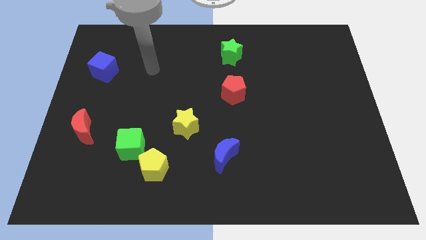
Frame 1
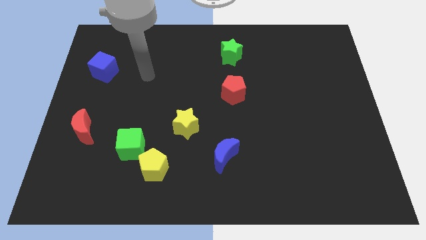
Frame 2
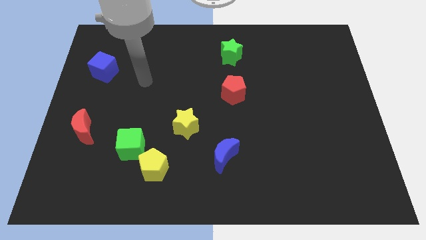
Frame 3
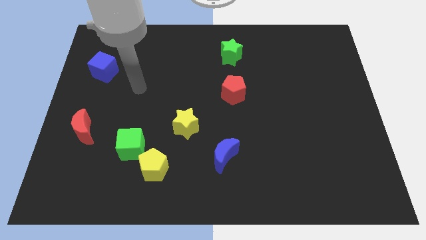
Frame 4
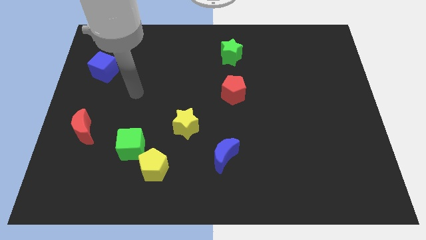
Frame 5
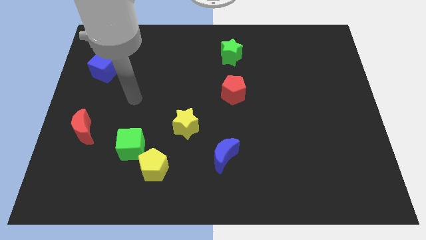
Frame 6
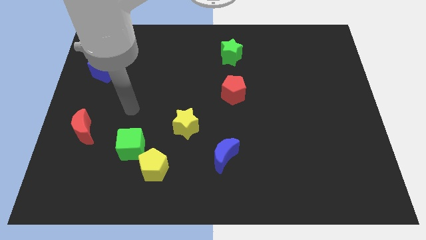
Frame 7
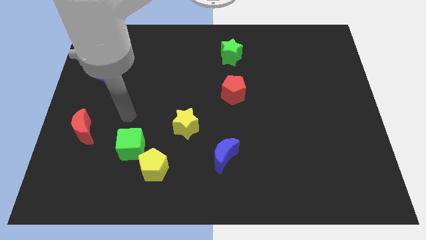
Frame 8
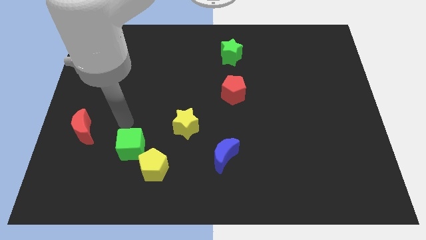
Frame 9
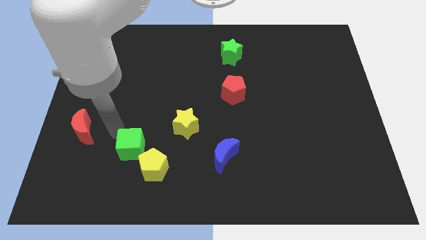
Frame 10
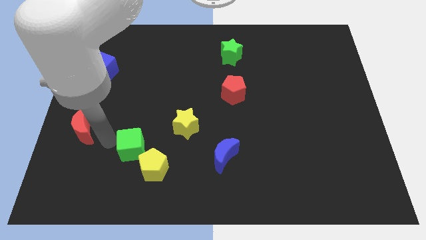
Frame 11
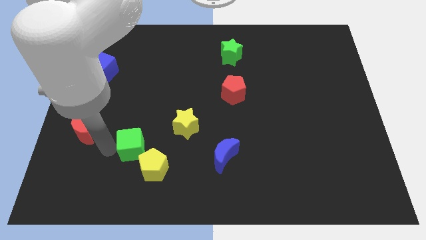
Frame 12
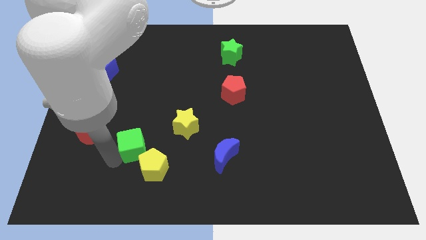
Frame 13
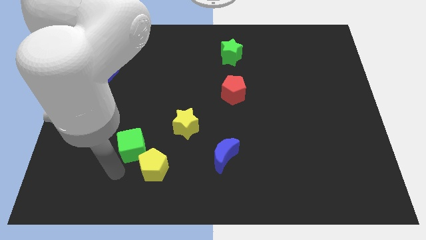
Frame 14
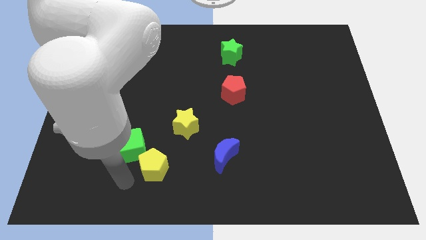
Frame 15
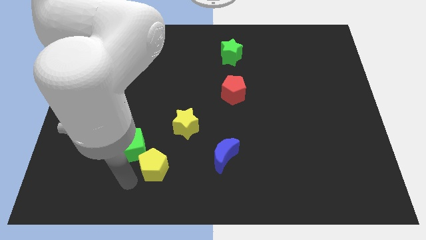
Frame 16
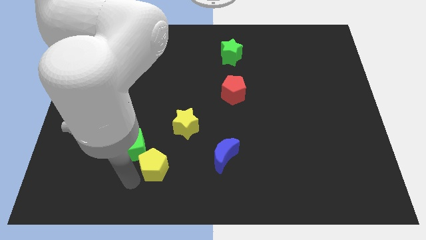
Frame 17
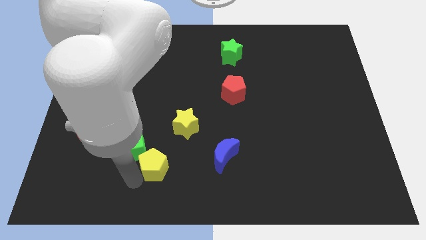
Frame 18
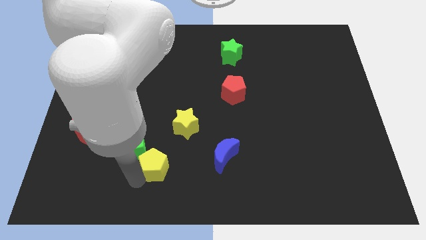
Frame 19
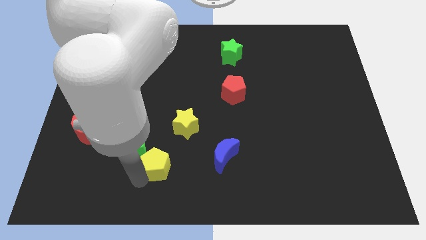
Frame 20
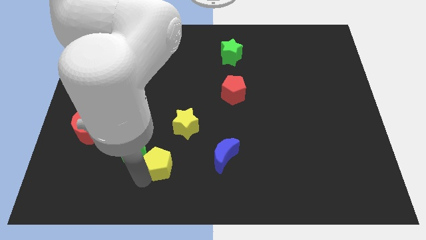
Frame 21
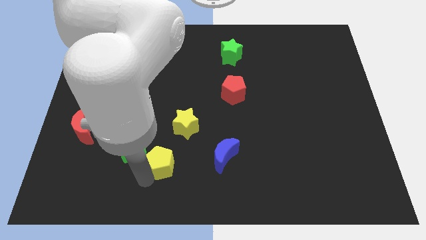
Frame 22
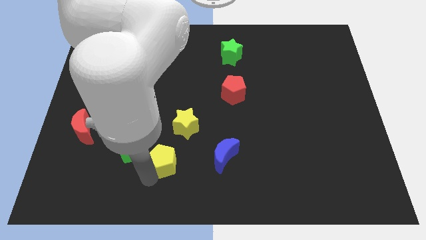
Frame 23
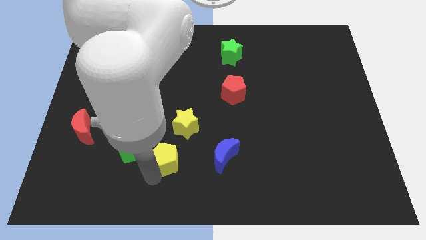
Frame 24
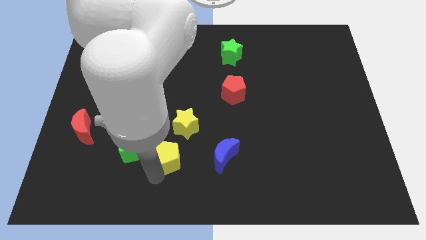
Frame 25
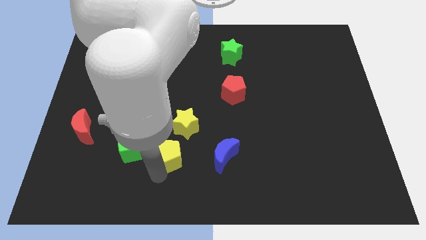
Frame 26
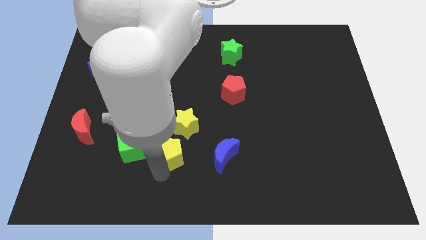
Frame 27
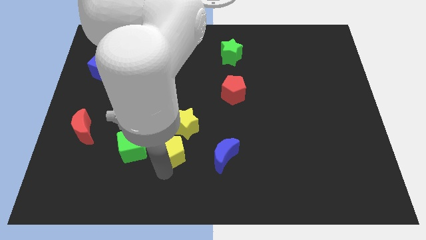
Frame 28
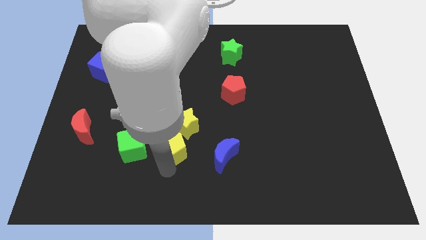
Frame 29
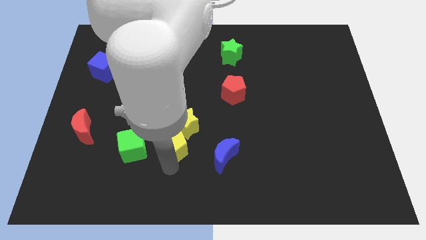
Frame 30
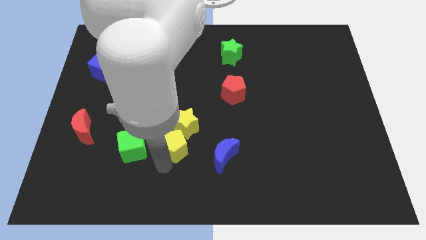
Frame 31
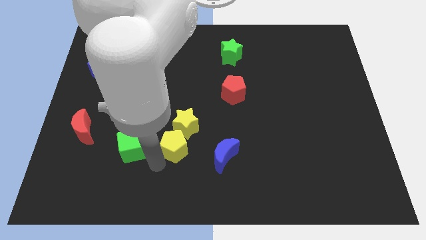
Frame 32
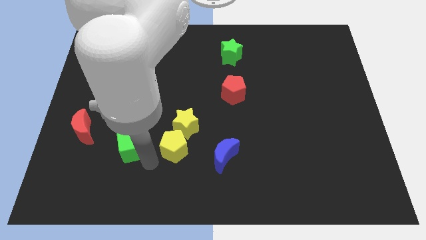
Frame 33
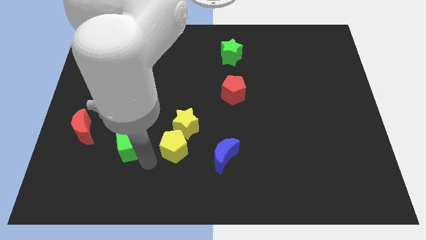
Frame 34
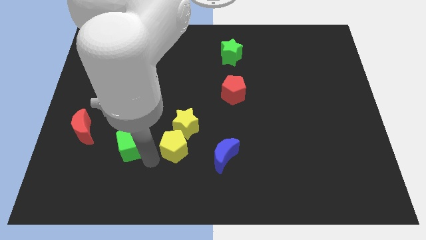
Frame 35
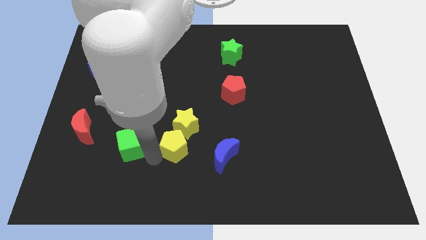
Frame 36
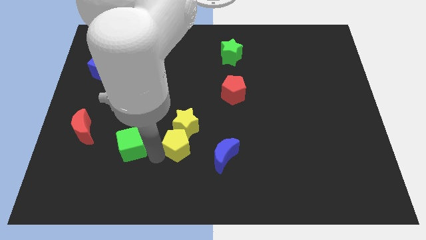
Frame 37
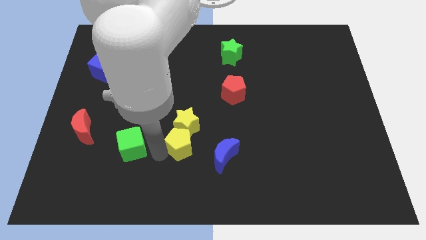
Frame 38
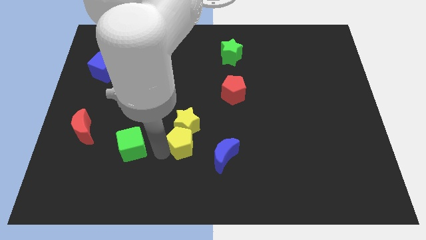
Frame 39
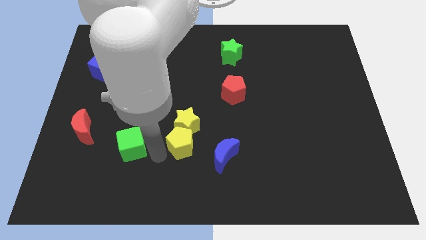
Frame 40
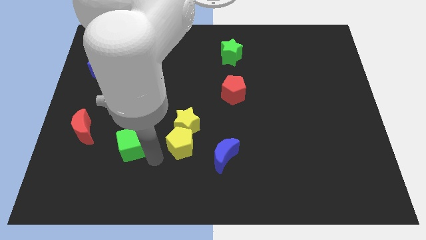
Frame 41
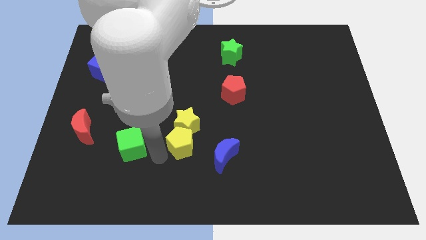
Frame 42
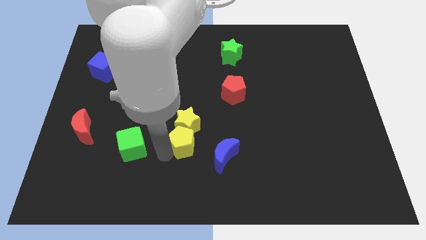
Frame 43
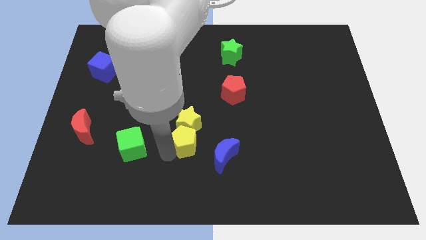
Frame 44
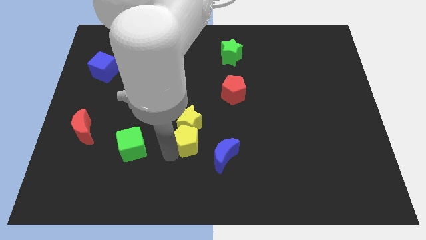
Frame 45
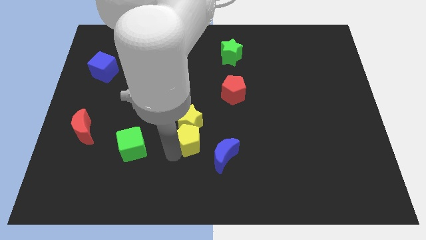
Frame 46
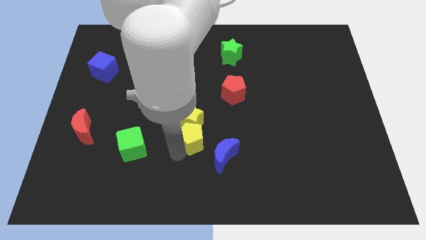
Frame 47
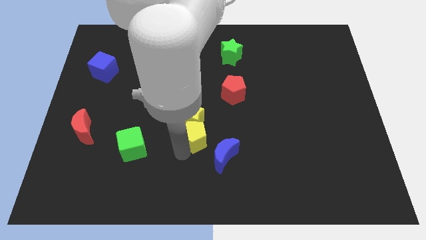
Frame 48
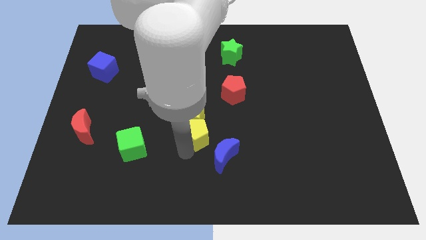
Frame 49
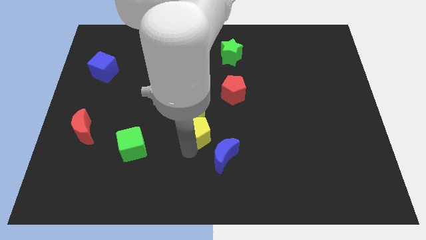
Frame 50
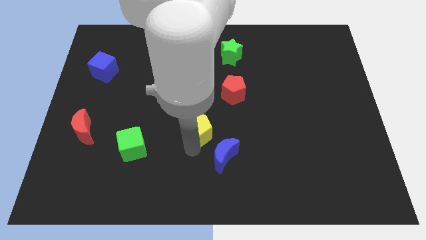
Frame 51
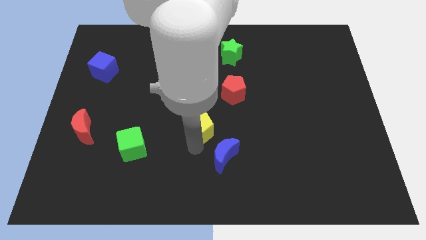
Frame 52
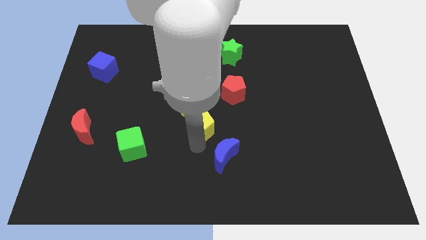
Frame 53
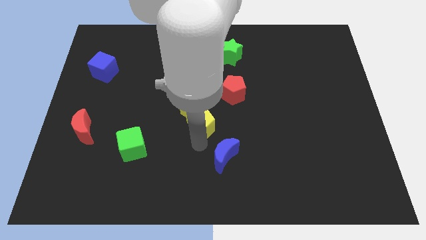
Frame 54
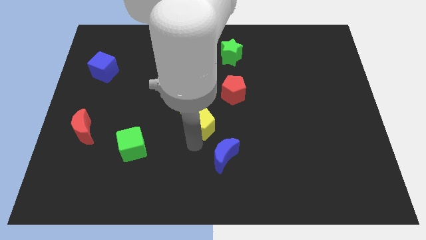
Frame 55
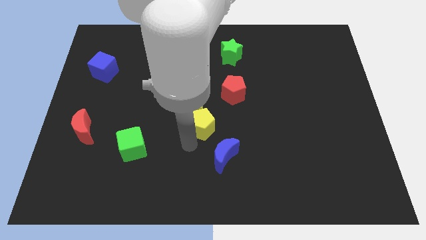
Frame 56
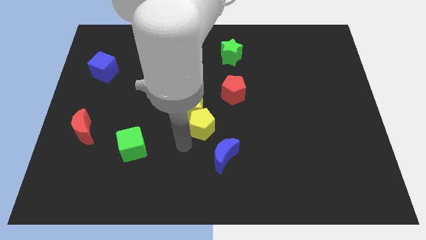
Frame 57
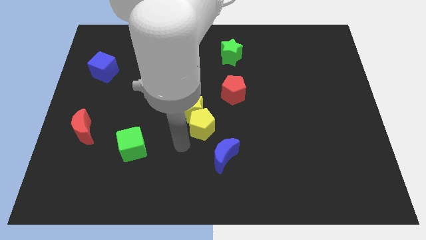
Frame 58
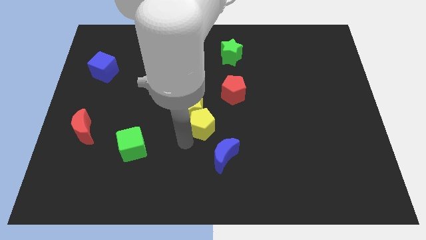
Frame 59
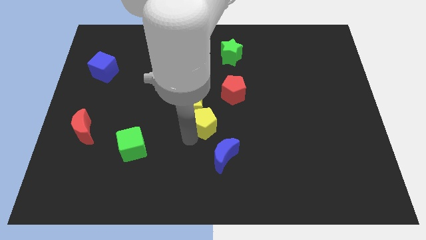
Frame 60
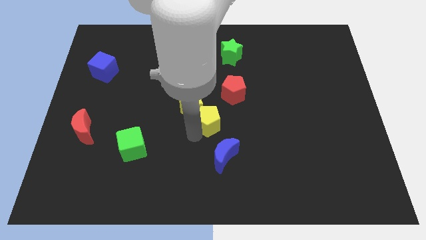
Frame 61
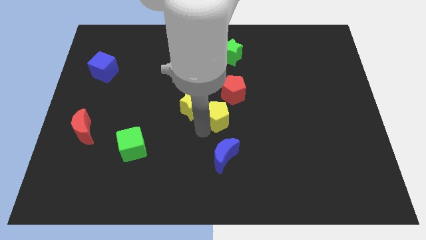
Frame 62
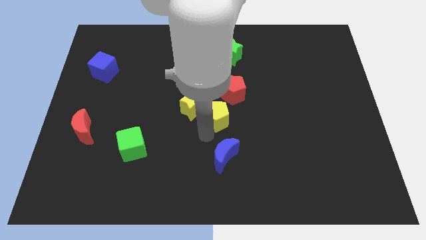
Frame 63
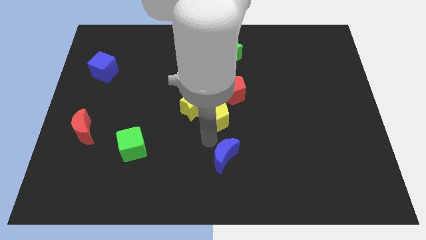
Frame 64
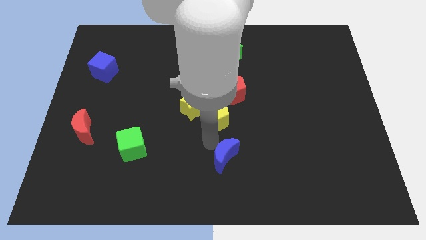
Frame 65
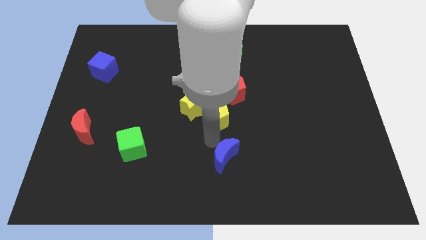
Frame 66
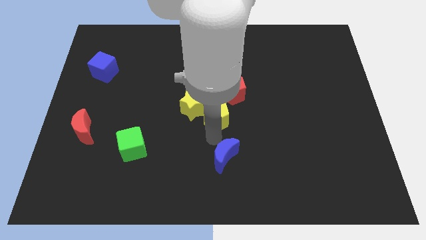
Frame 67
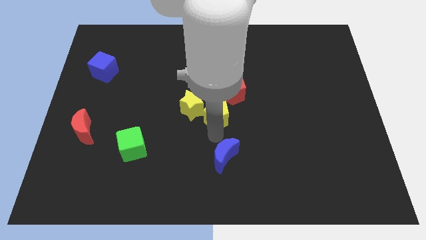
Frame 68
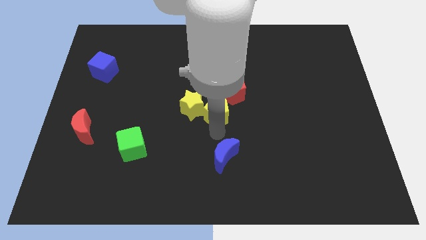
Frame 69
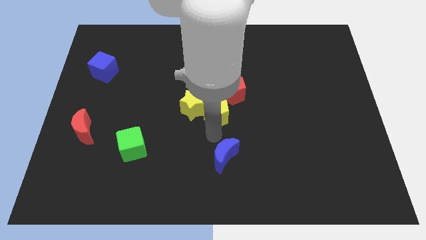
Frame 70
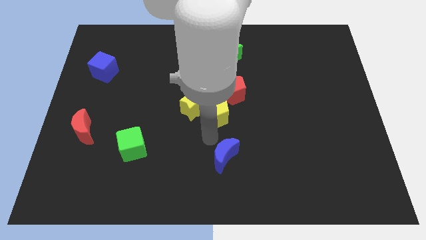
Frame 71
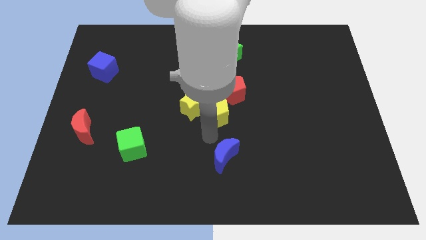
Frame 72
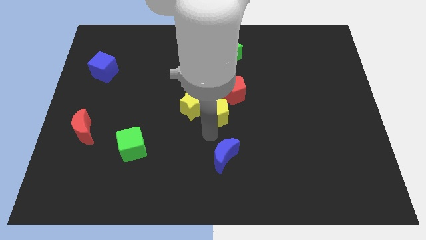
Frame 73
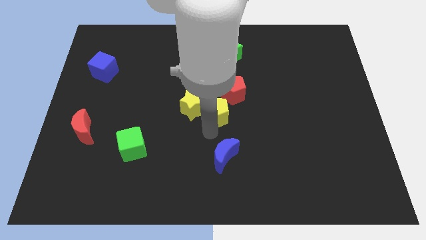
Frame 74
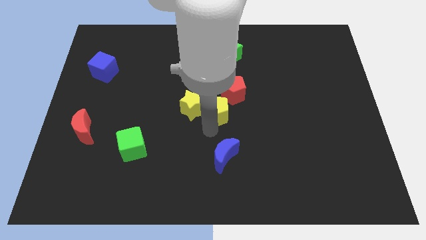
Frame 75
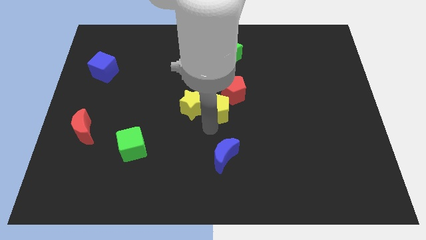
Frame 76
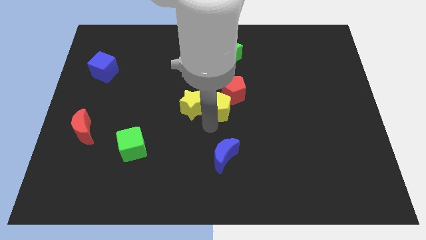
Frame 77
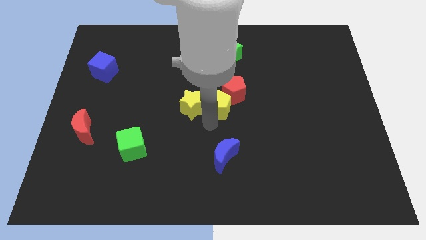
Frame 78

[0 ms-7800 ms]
push the yellow pentagon towards the red pentagon
